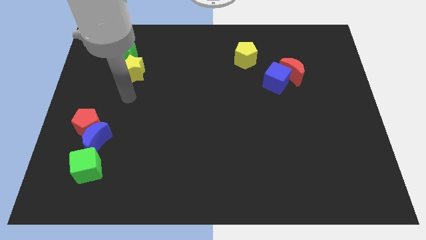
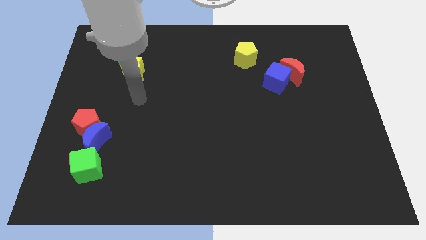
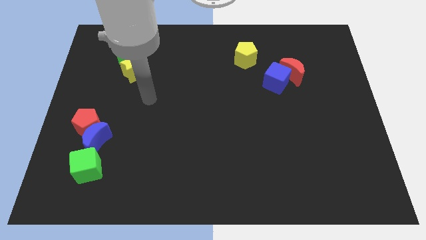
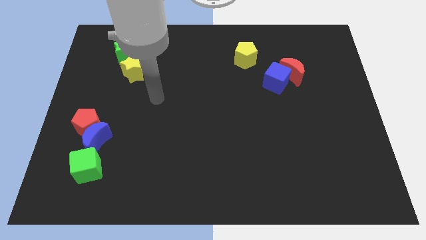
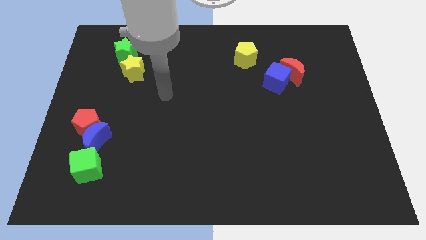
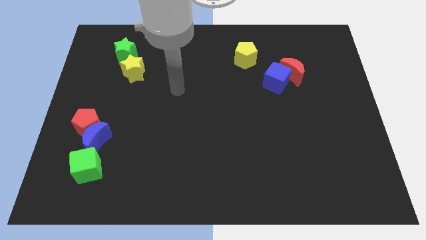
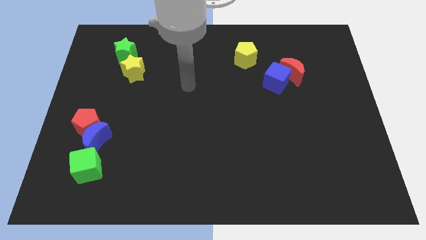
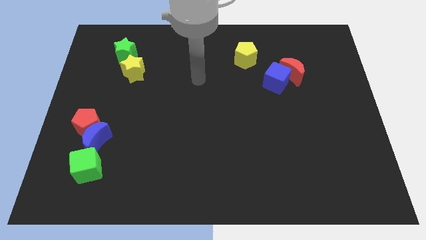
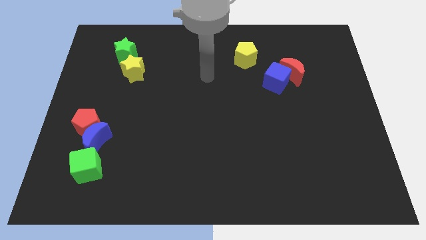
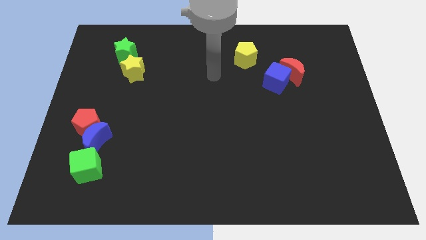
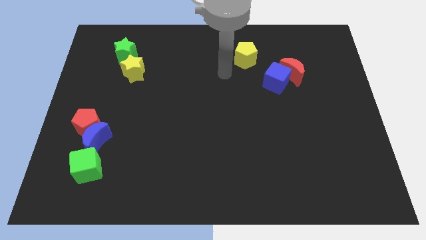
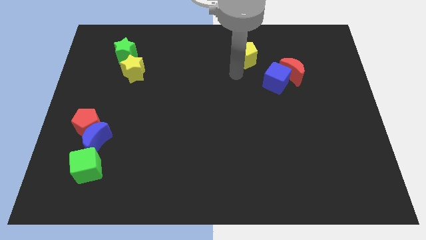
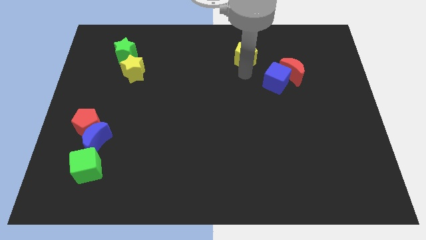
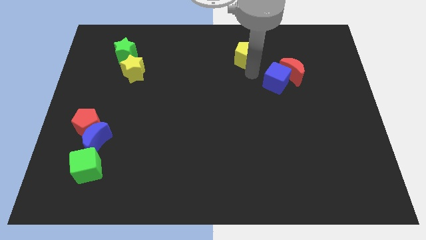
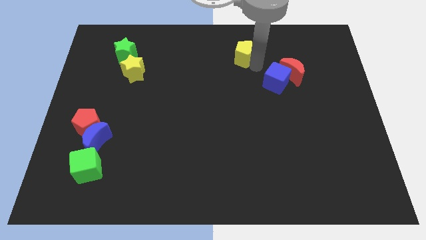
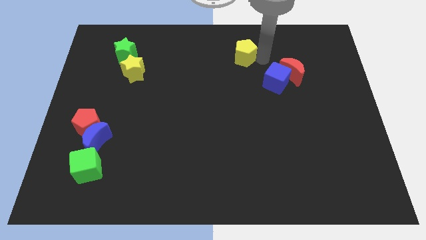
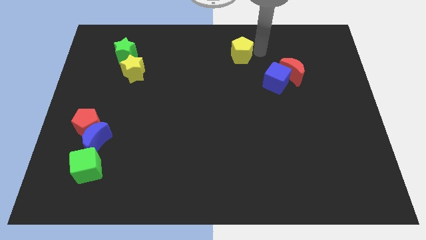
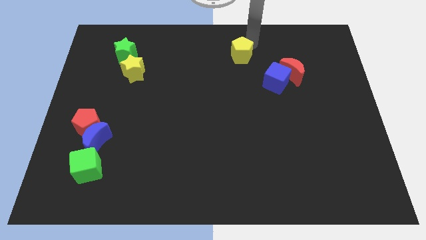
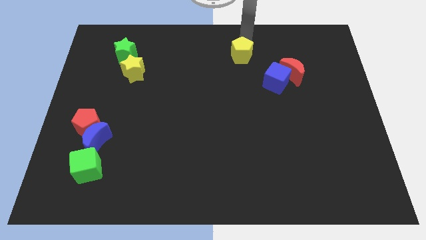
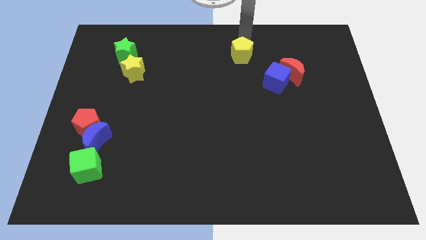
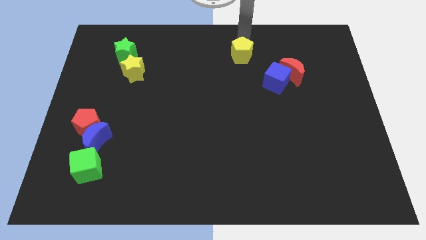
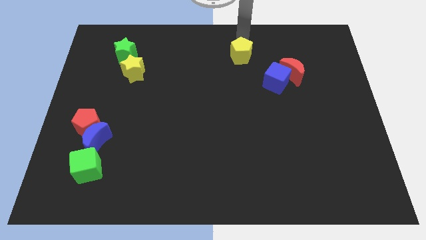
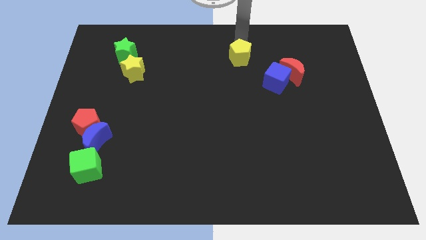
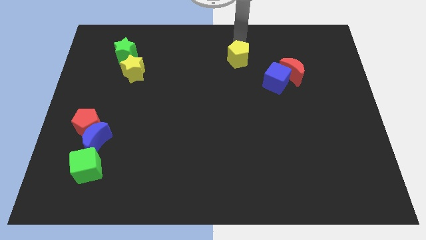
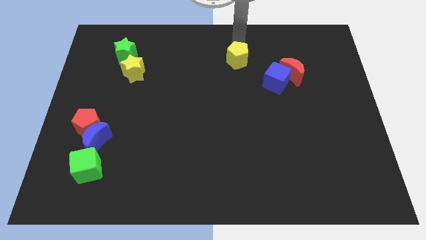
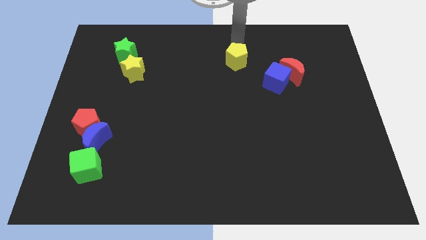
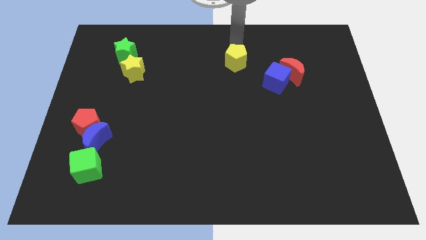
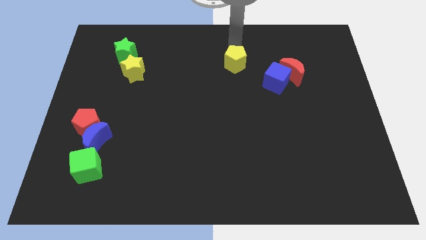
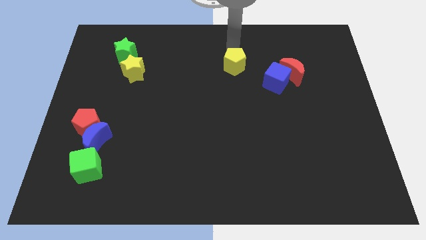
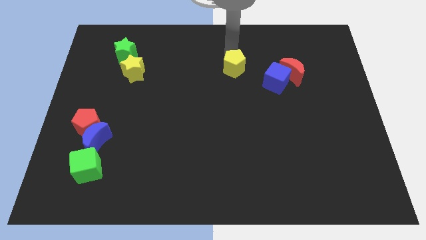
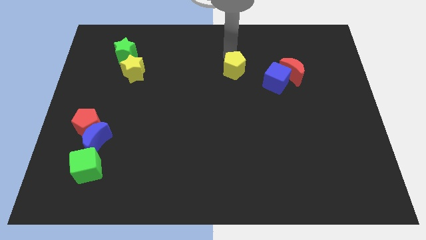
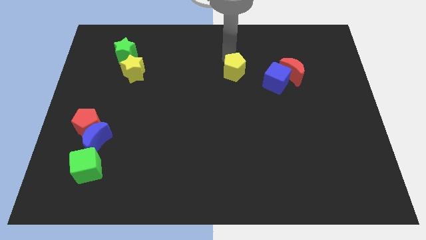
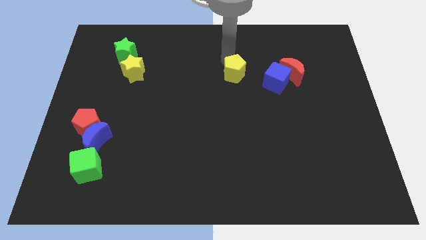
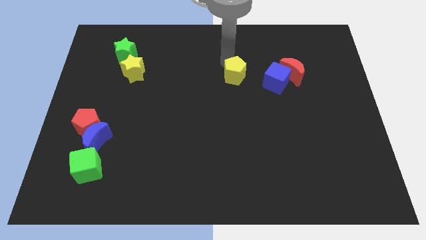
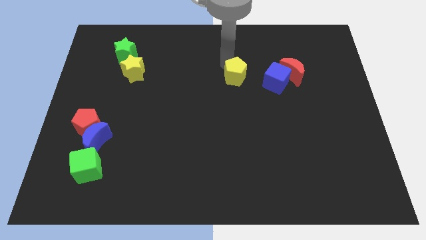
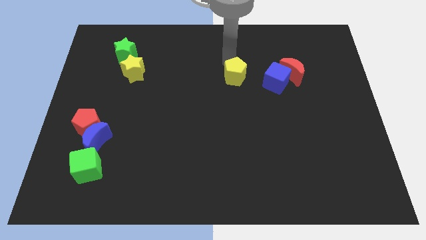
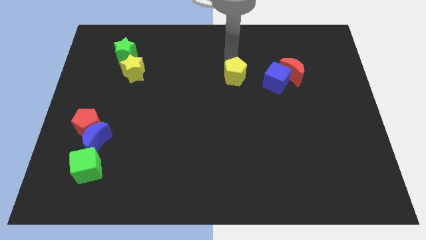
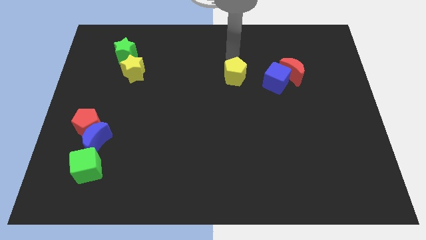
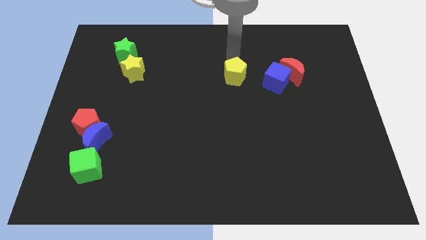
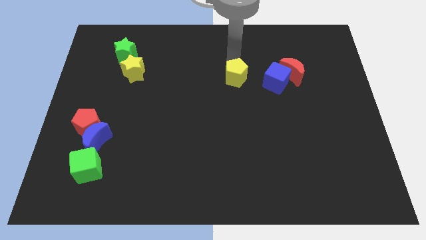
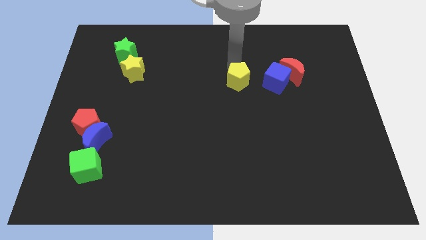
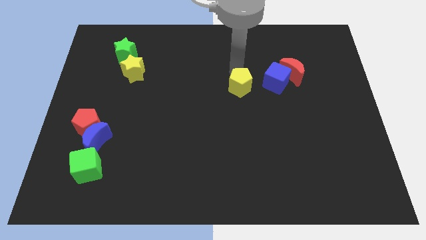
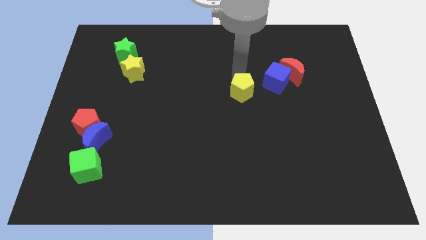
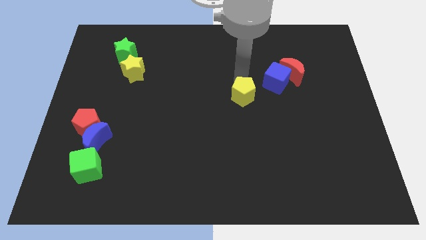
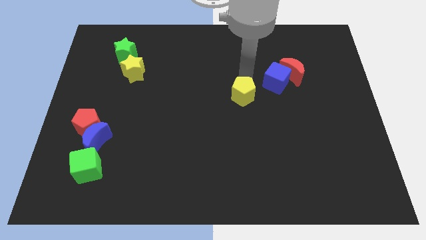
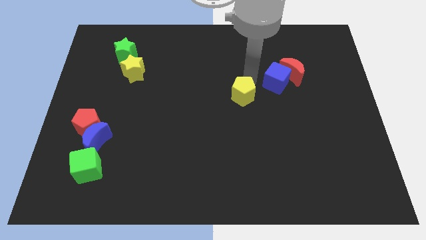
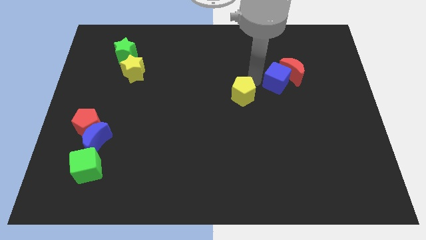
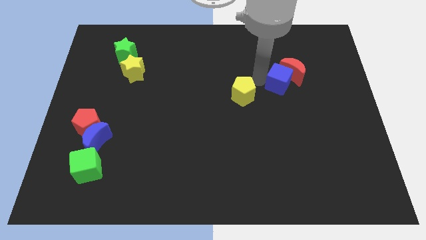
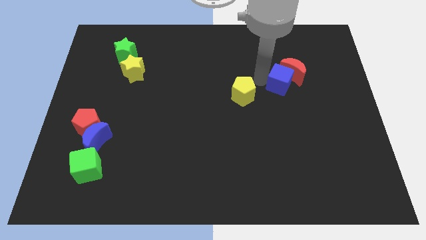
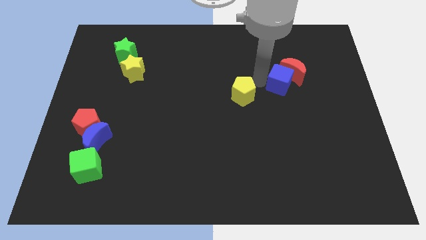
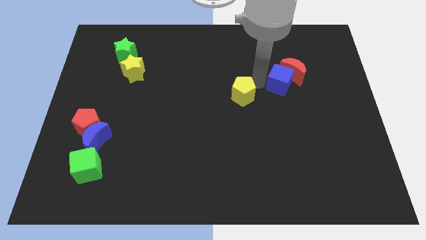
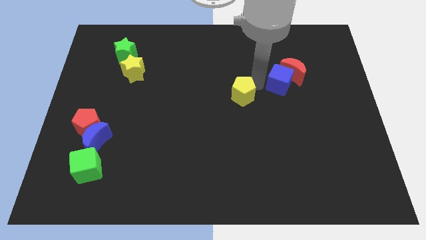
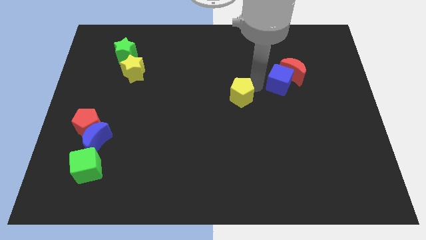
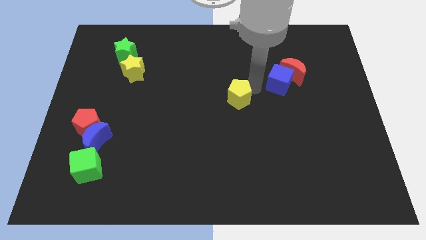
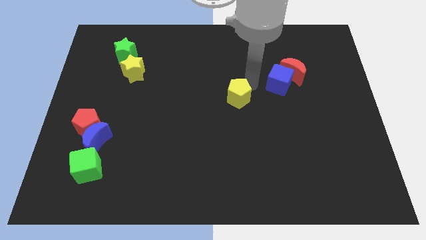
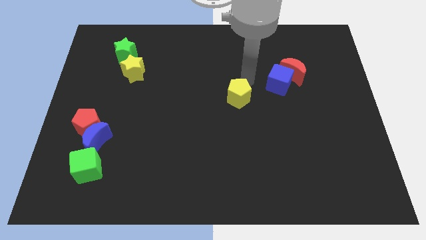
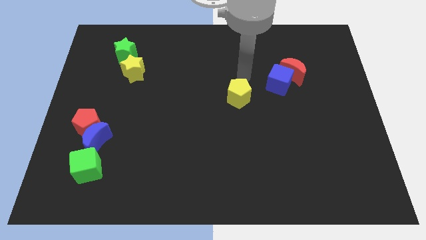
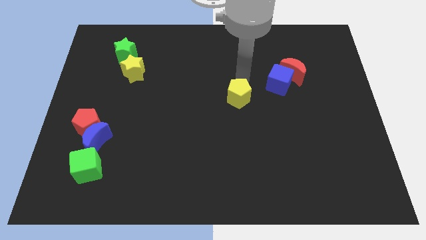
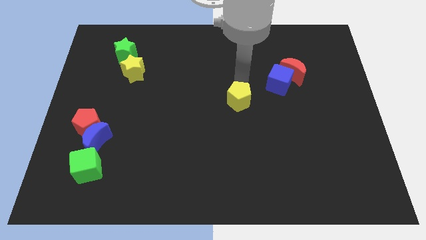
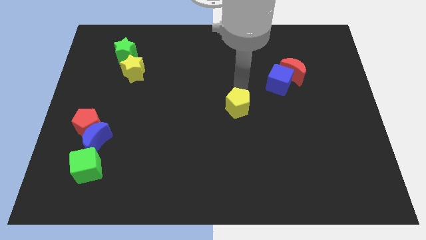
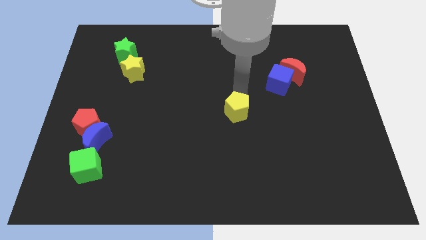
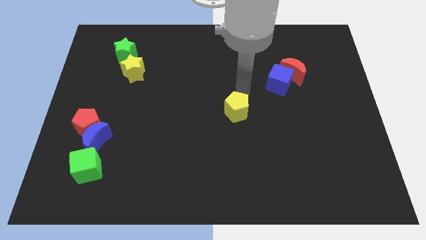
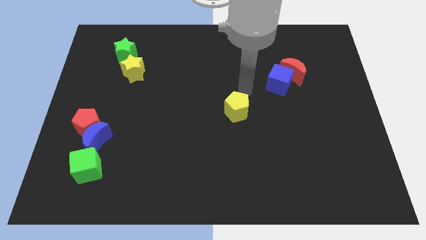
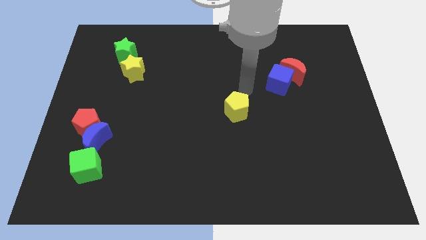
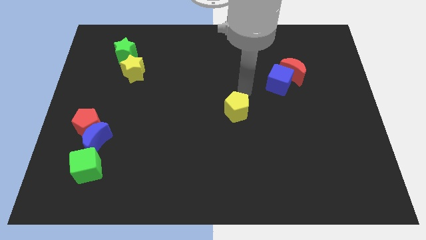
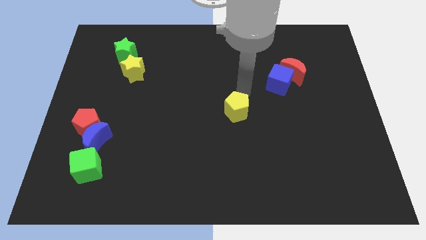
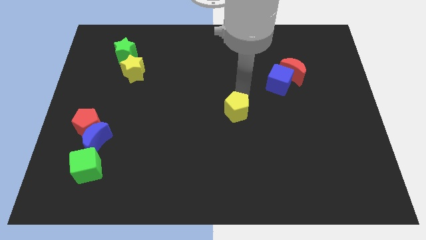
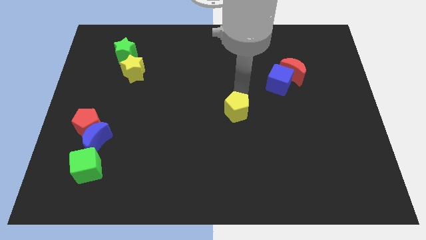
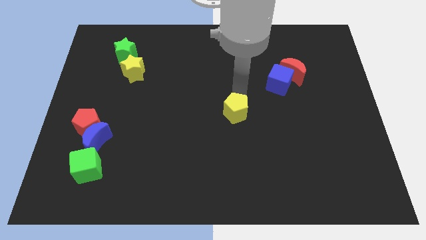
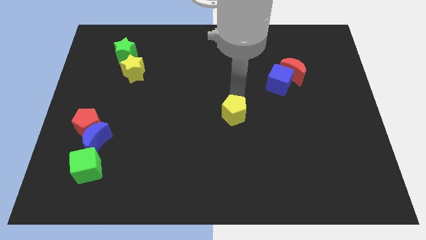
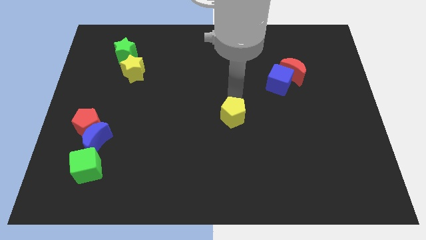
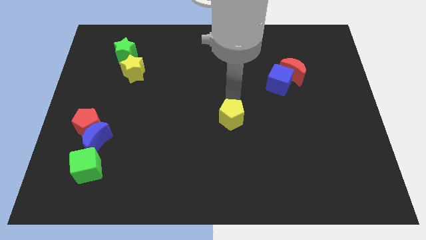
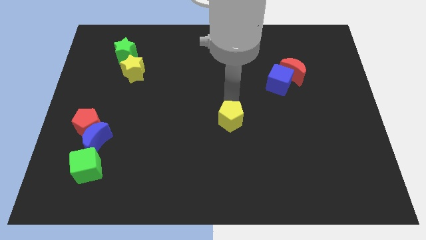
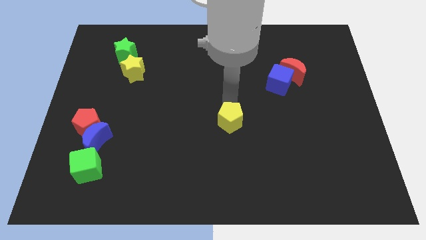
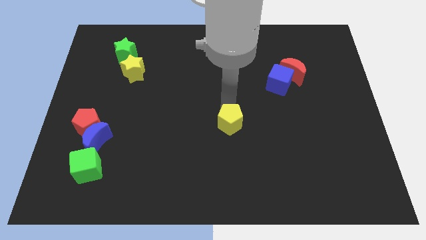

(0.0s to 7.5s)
push the yellow pentagon downwards

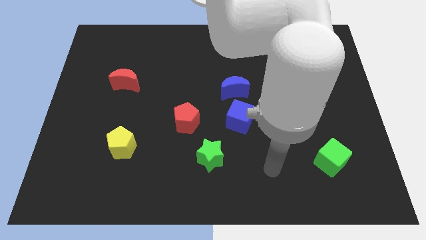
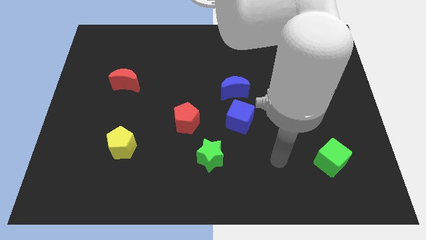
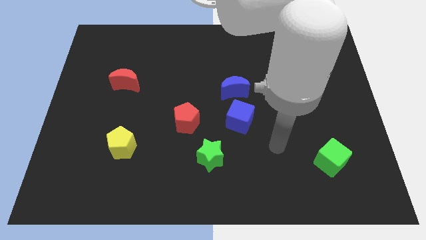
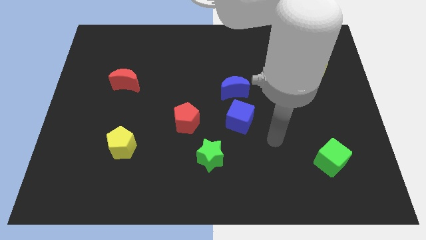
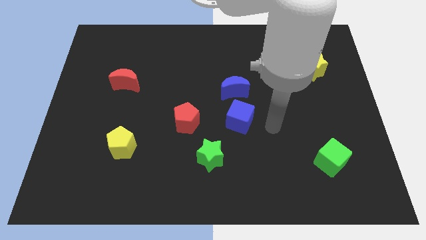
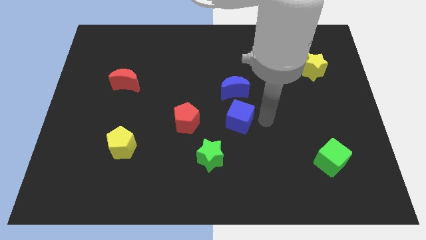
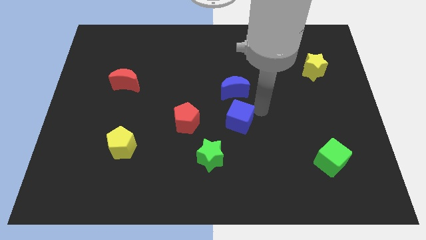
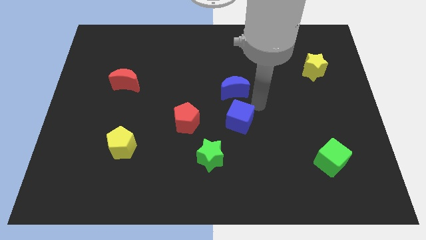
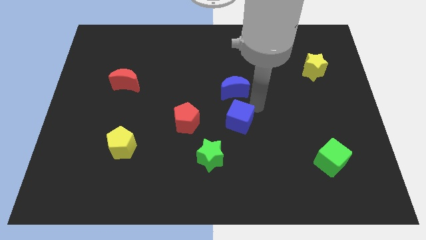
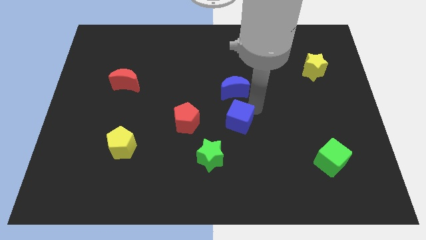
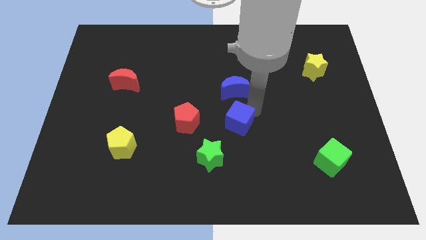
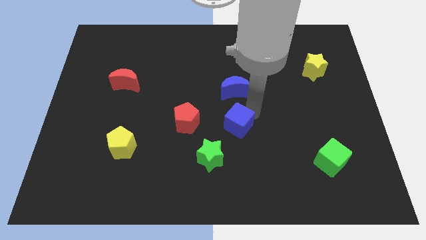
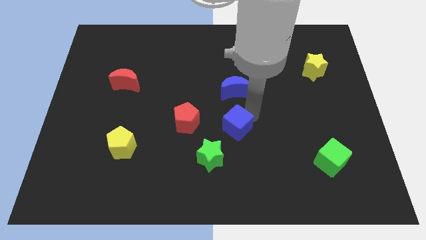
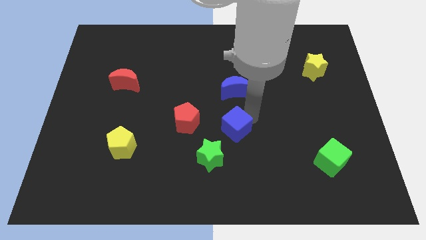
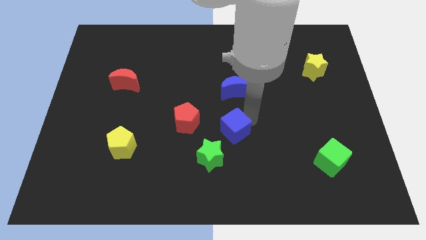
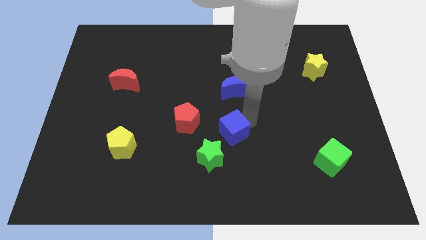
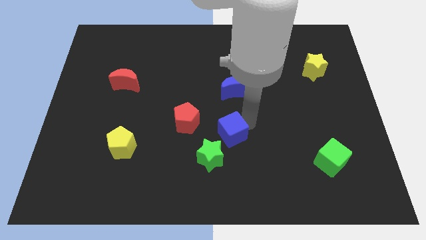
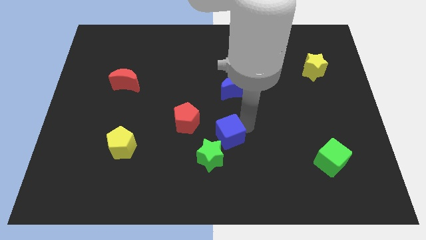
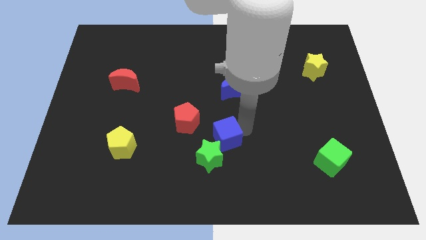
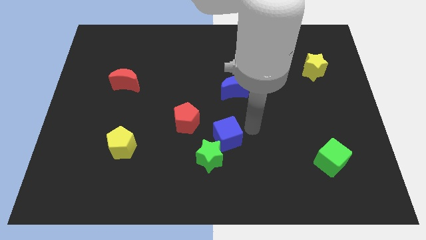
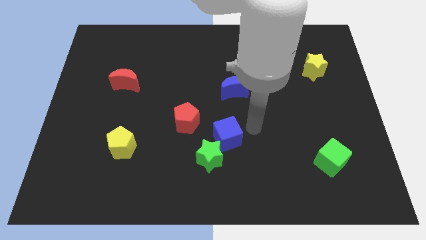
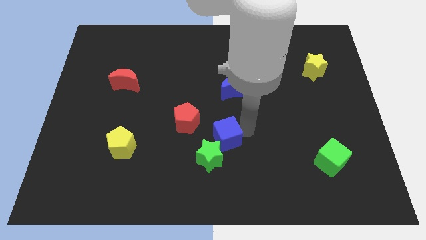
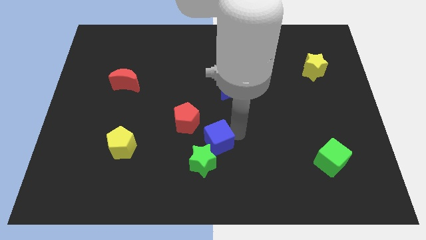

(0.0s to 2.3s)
push the blue cube down and to the left a little
